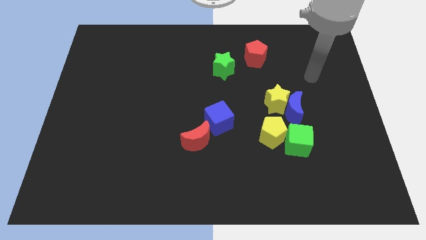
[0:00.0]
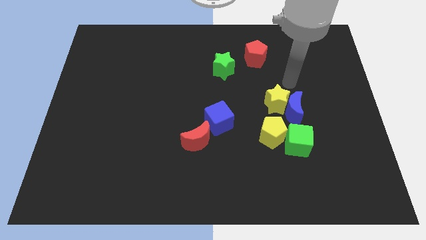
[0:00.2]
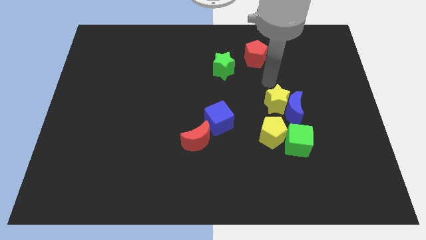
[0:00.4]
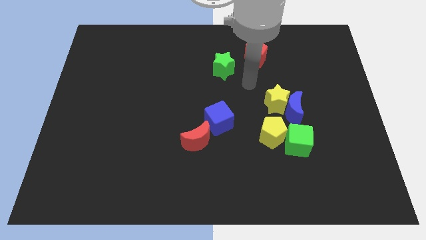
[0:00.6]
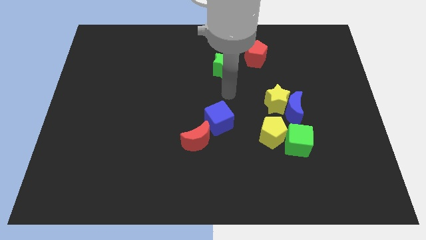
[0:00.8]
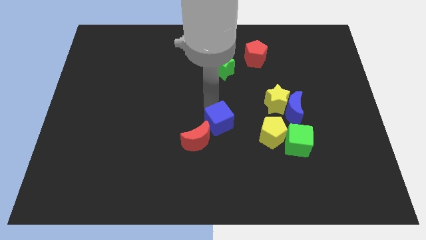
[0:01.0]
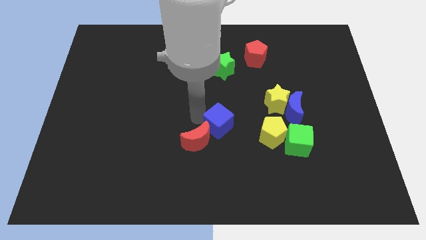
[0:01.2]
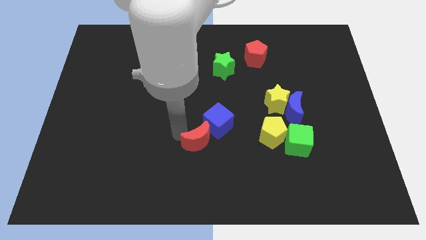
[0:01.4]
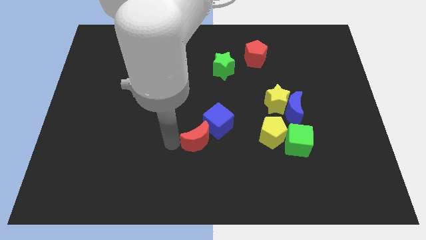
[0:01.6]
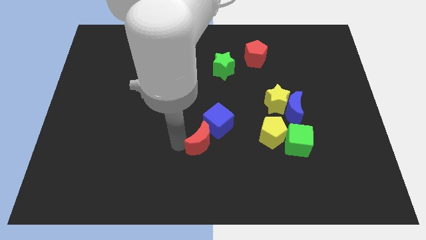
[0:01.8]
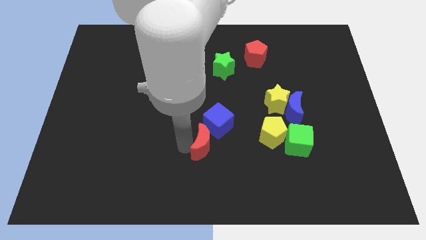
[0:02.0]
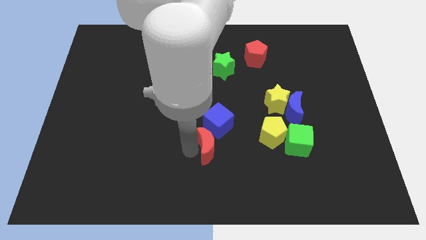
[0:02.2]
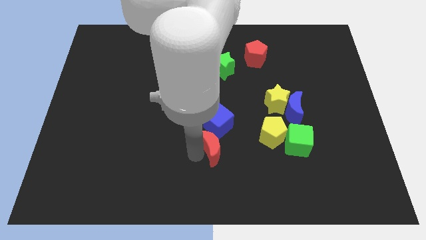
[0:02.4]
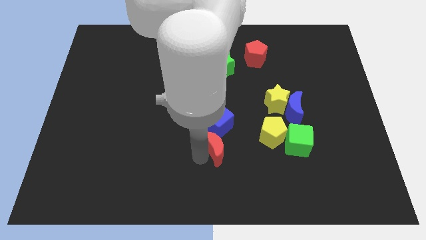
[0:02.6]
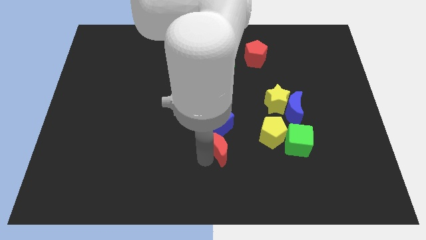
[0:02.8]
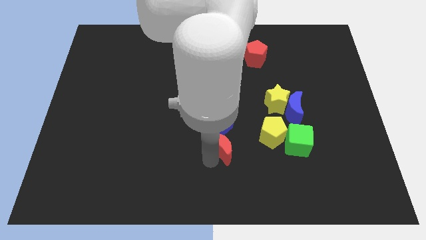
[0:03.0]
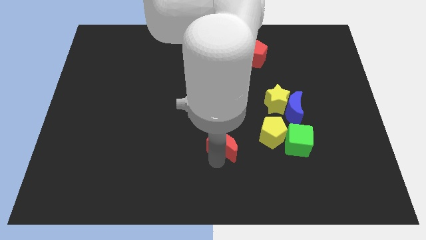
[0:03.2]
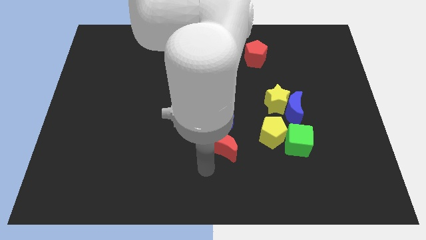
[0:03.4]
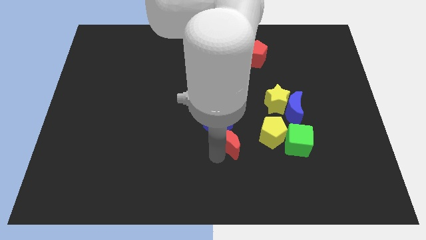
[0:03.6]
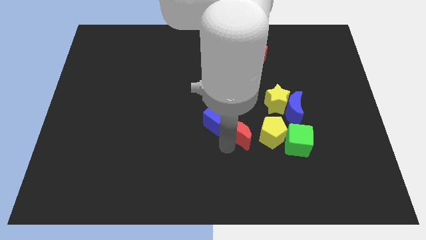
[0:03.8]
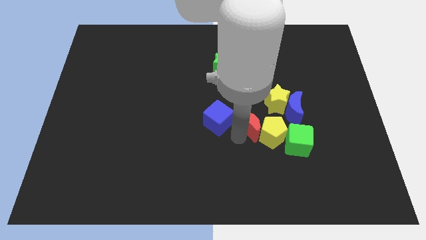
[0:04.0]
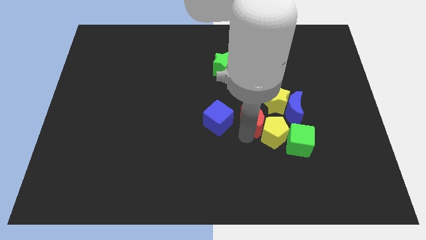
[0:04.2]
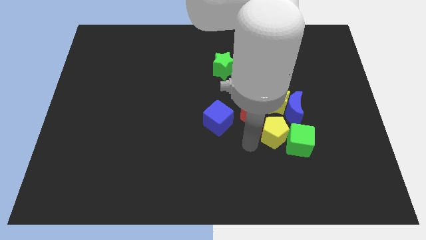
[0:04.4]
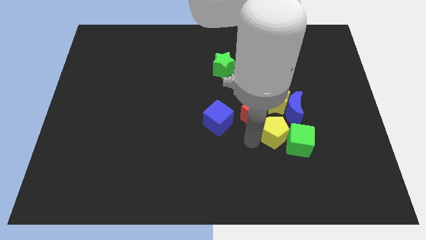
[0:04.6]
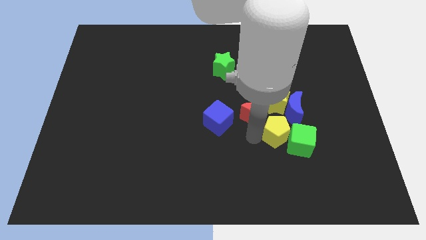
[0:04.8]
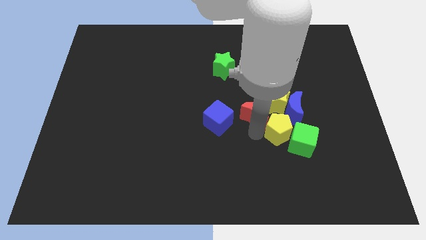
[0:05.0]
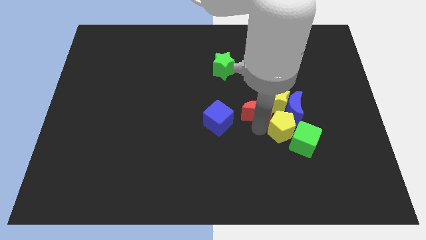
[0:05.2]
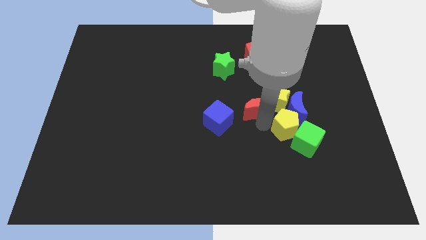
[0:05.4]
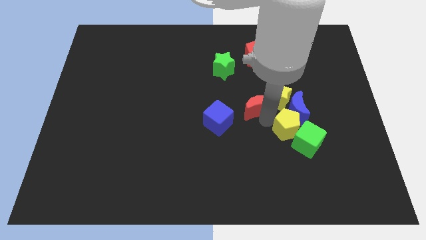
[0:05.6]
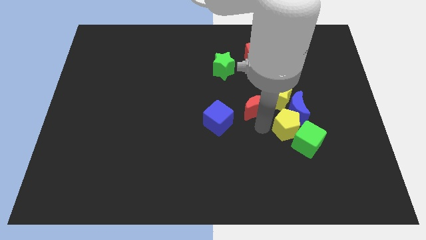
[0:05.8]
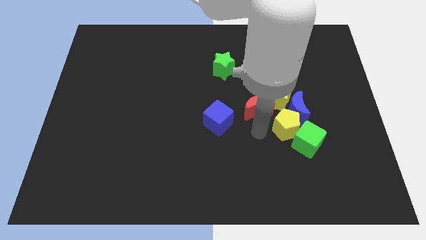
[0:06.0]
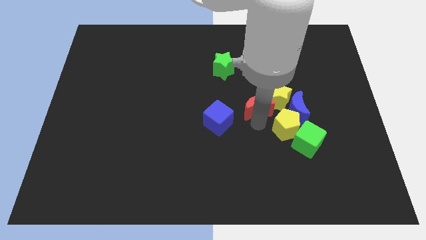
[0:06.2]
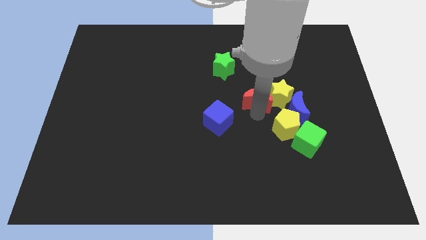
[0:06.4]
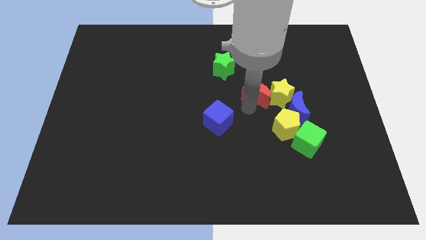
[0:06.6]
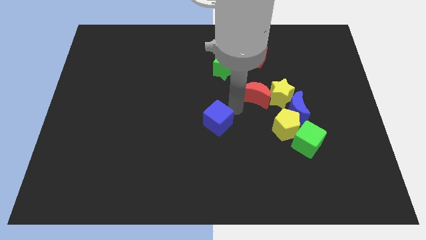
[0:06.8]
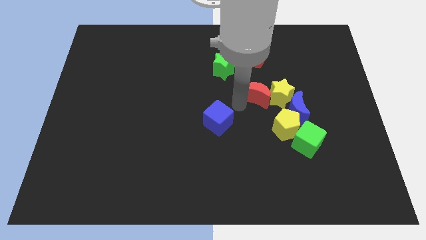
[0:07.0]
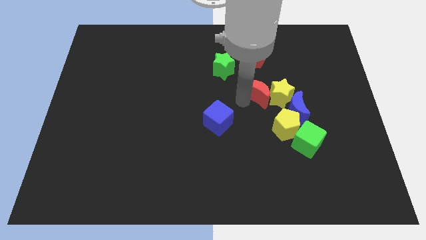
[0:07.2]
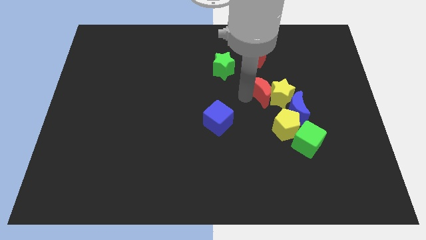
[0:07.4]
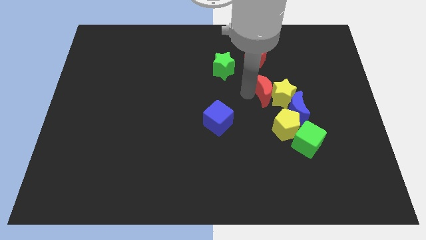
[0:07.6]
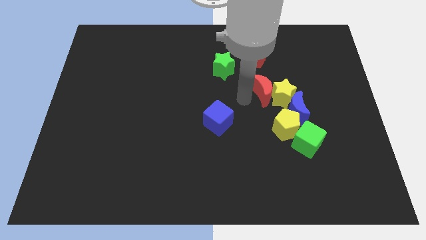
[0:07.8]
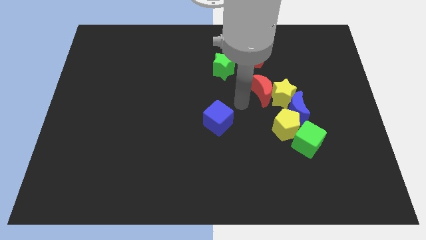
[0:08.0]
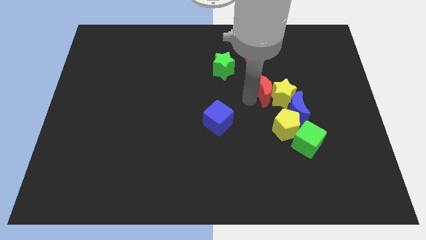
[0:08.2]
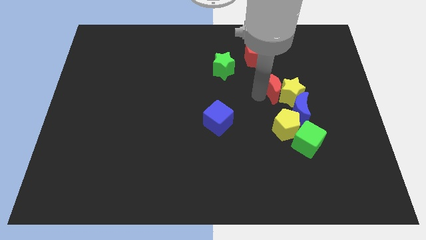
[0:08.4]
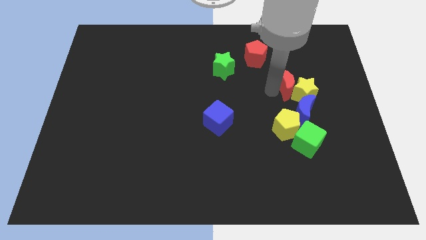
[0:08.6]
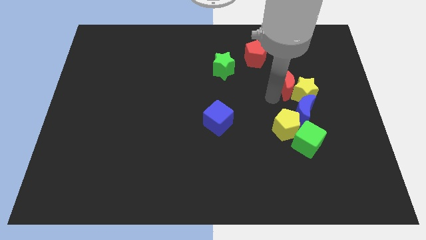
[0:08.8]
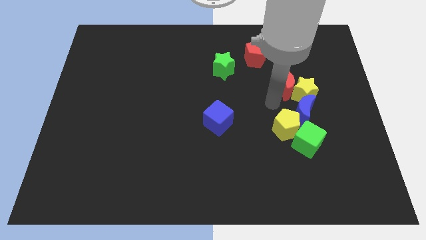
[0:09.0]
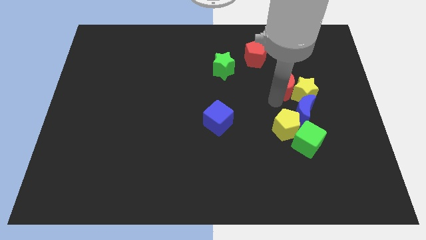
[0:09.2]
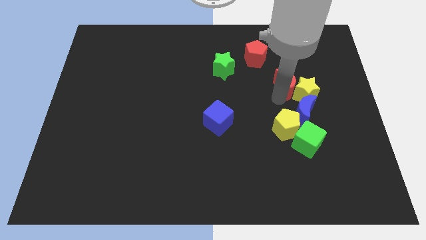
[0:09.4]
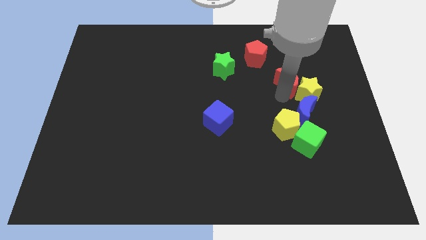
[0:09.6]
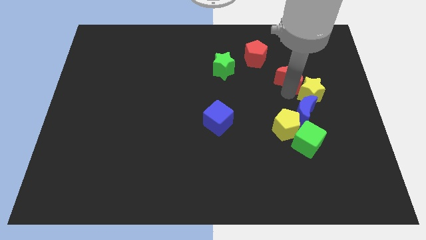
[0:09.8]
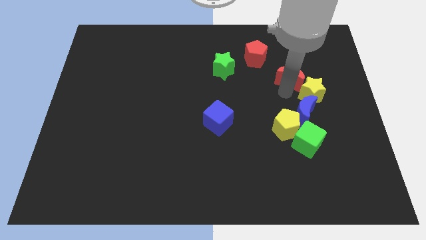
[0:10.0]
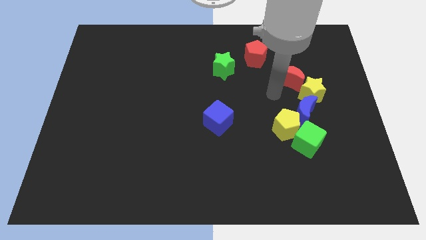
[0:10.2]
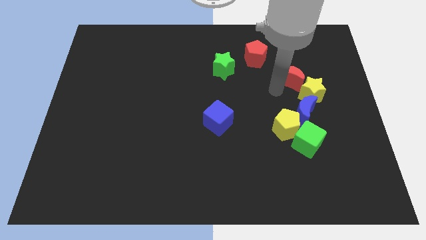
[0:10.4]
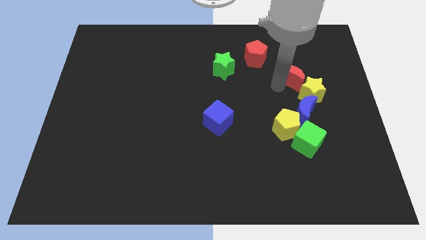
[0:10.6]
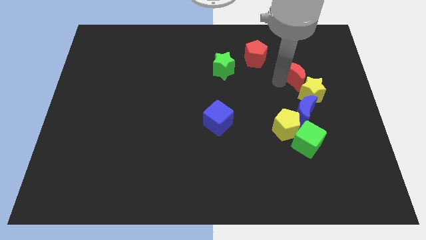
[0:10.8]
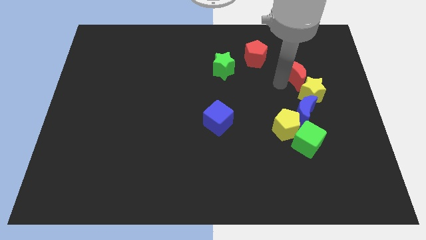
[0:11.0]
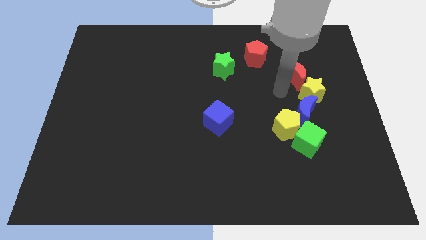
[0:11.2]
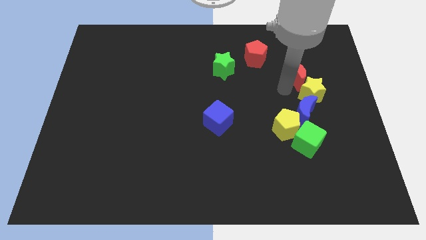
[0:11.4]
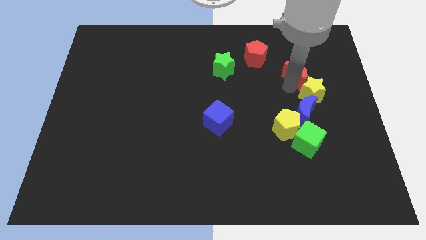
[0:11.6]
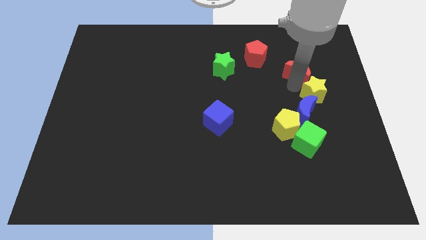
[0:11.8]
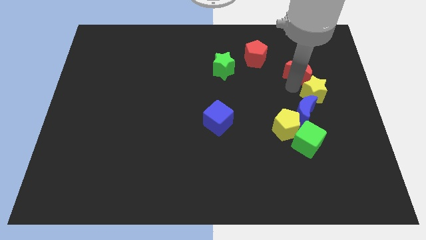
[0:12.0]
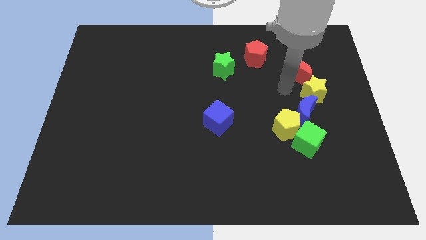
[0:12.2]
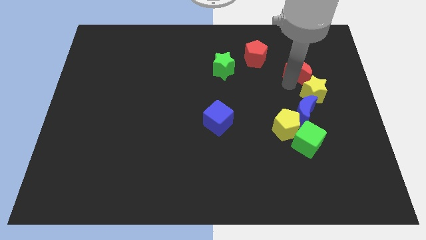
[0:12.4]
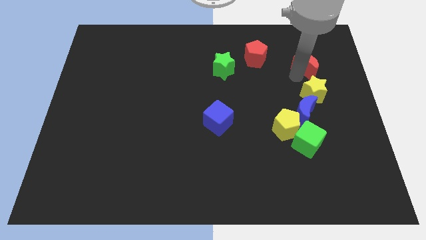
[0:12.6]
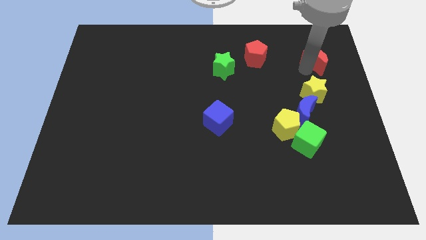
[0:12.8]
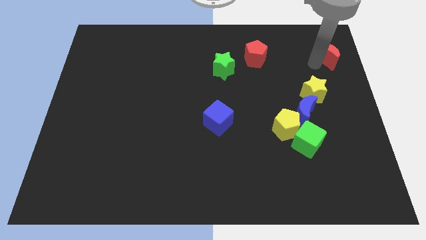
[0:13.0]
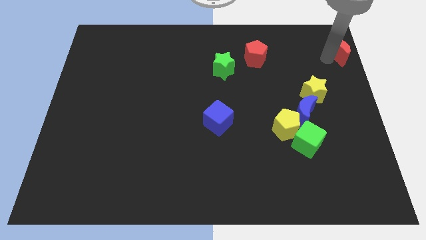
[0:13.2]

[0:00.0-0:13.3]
put the red moon to the top right corner

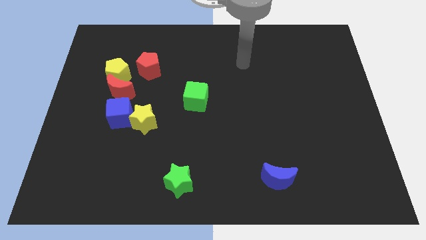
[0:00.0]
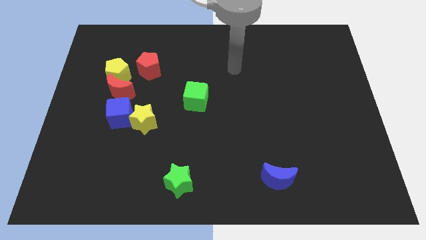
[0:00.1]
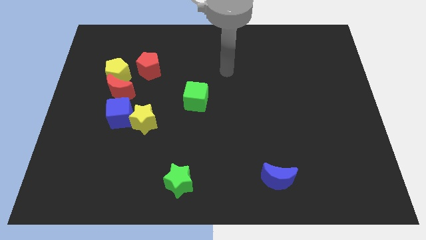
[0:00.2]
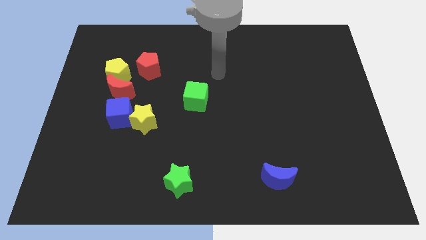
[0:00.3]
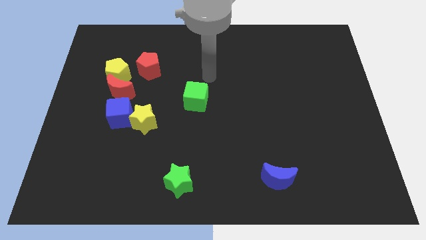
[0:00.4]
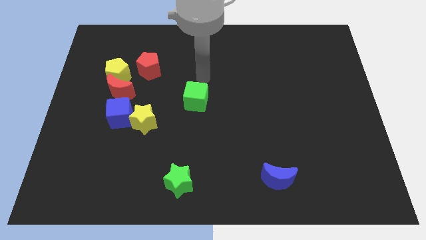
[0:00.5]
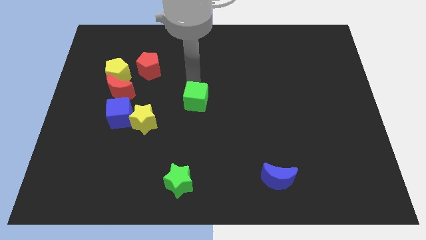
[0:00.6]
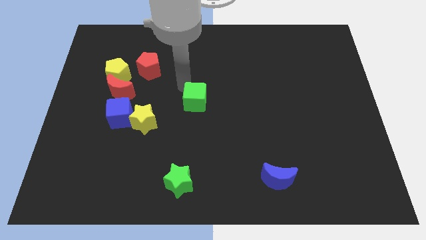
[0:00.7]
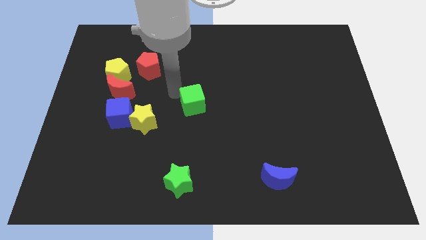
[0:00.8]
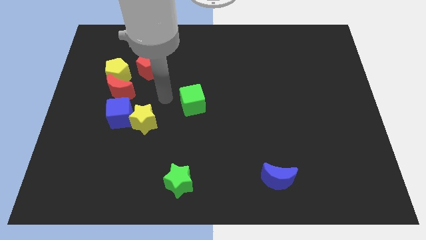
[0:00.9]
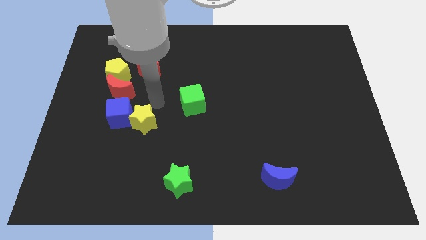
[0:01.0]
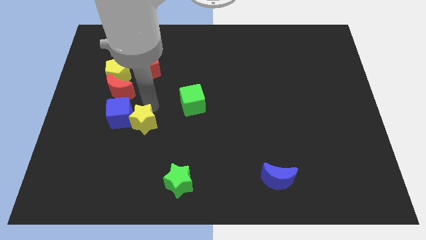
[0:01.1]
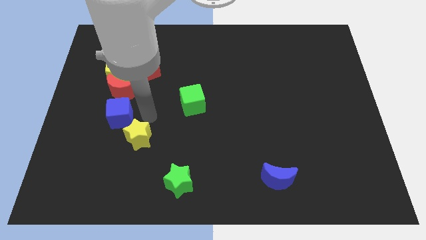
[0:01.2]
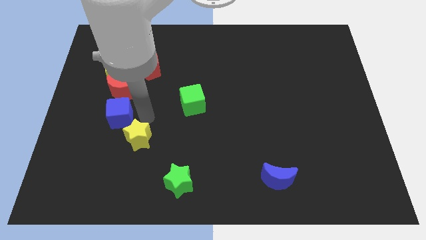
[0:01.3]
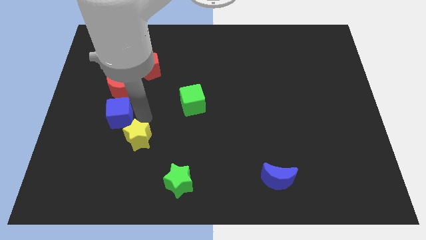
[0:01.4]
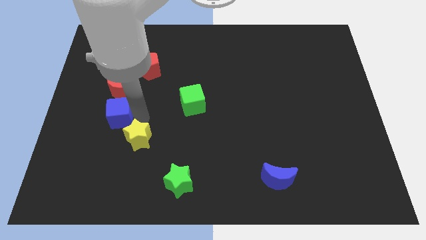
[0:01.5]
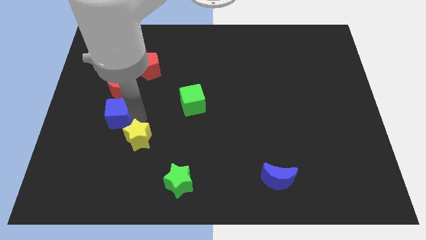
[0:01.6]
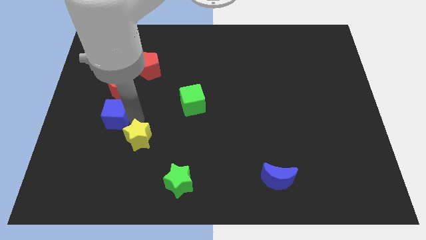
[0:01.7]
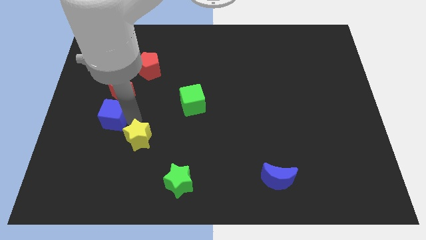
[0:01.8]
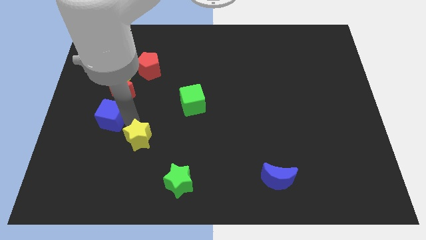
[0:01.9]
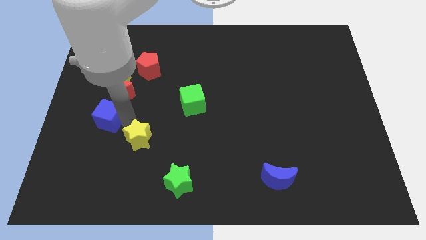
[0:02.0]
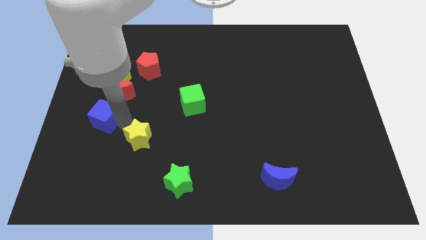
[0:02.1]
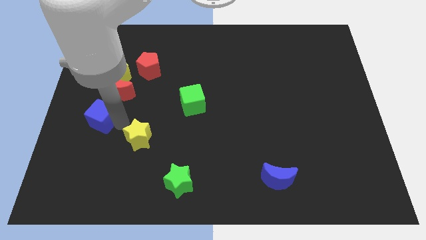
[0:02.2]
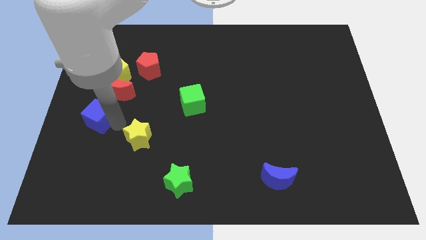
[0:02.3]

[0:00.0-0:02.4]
push the blue cube to the left side
